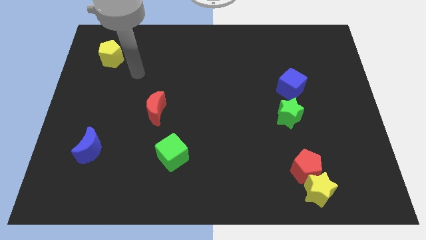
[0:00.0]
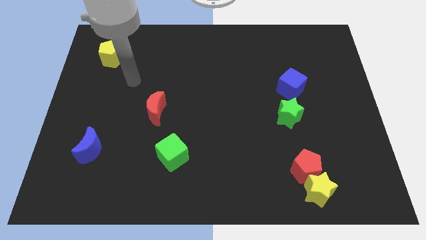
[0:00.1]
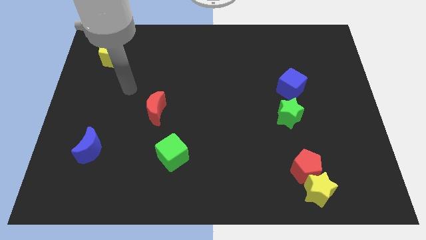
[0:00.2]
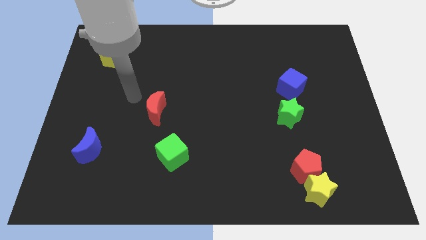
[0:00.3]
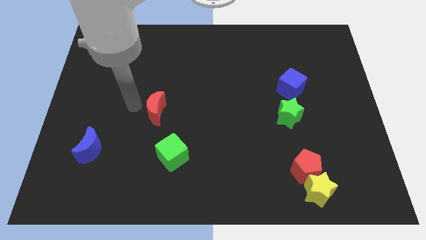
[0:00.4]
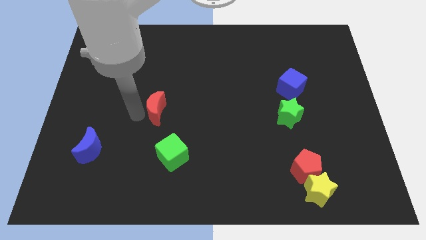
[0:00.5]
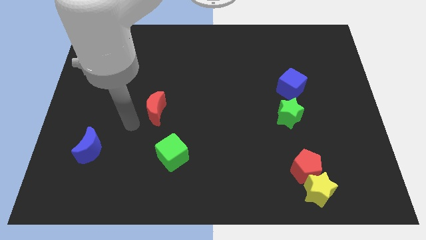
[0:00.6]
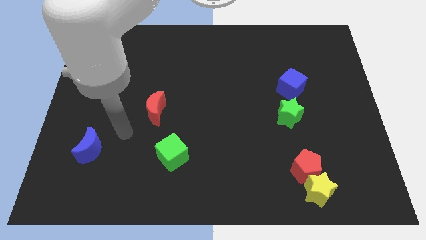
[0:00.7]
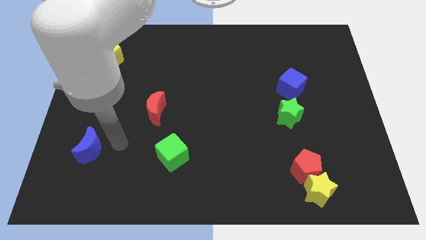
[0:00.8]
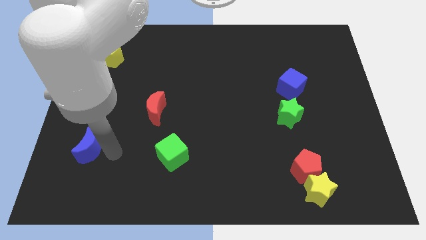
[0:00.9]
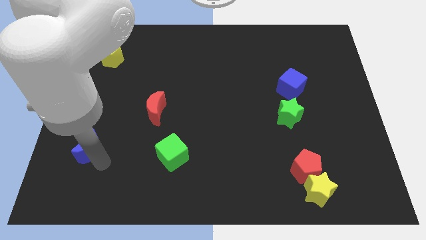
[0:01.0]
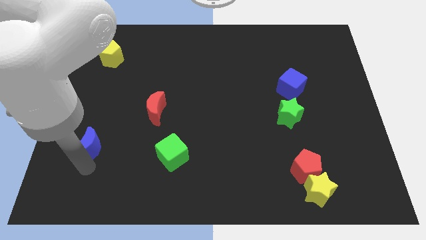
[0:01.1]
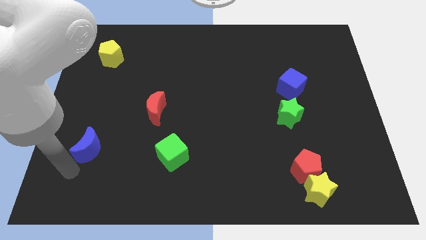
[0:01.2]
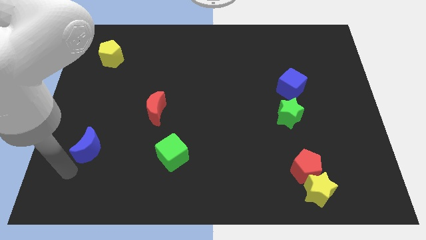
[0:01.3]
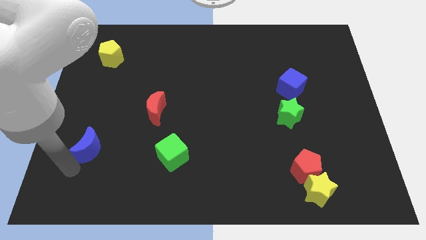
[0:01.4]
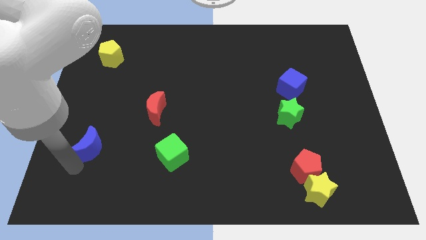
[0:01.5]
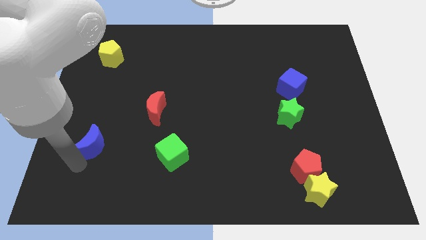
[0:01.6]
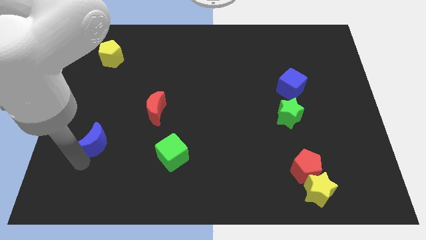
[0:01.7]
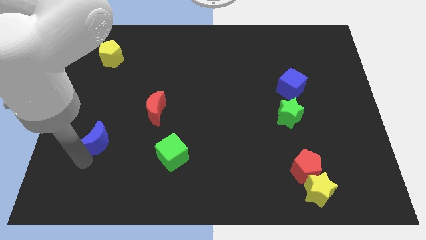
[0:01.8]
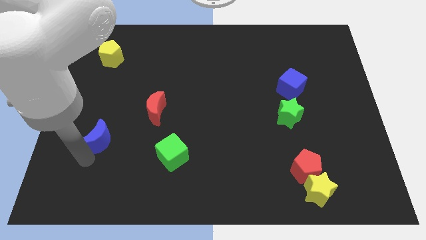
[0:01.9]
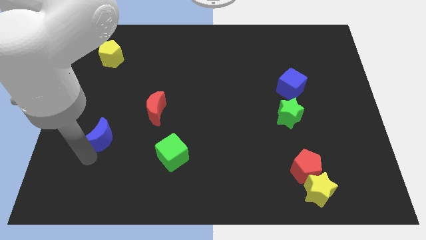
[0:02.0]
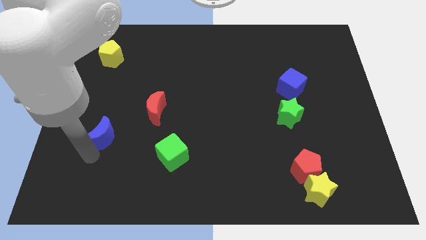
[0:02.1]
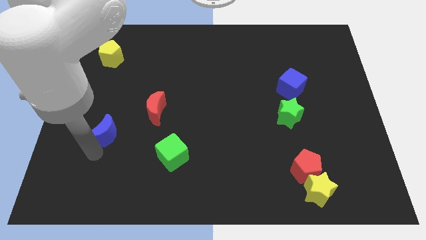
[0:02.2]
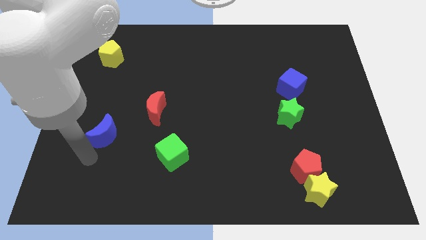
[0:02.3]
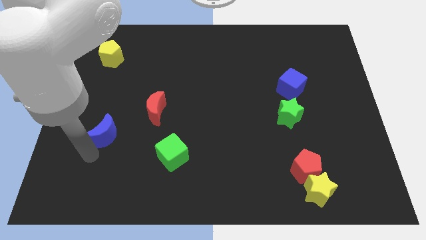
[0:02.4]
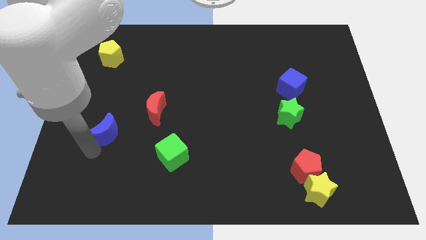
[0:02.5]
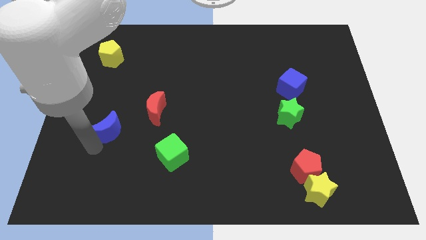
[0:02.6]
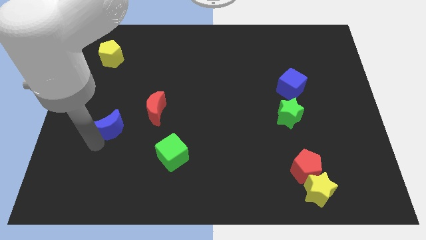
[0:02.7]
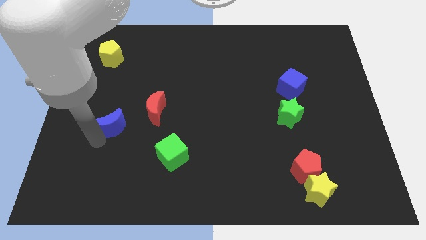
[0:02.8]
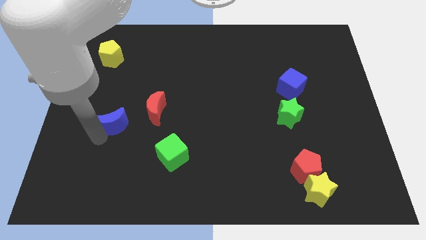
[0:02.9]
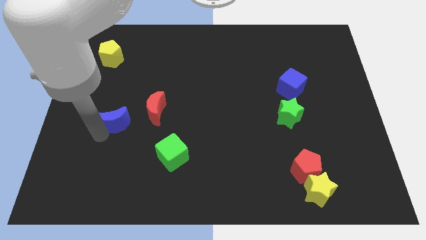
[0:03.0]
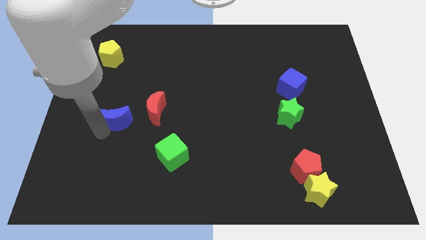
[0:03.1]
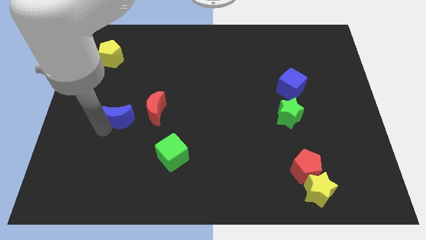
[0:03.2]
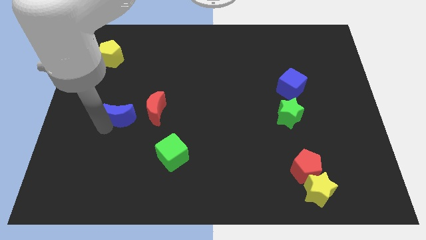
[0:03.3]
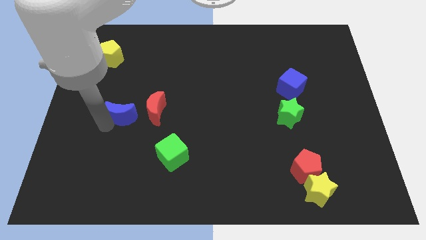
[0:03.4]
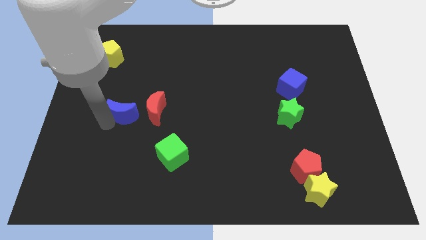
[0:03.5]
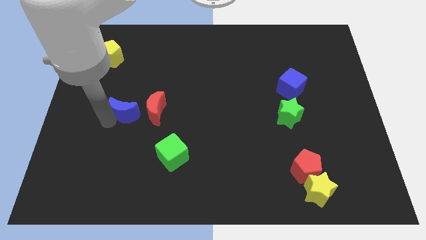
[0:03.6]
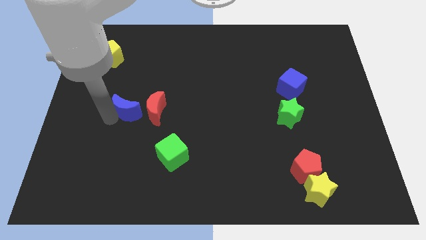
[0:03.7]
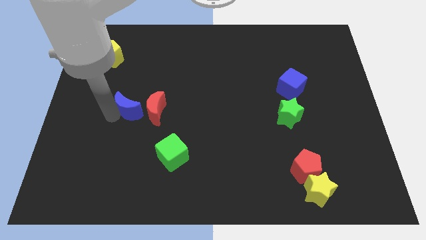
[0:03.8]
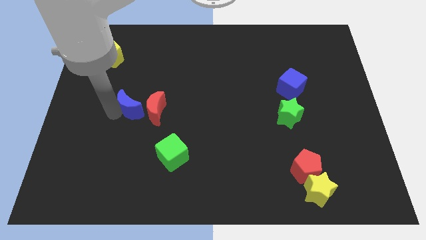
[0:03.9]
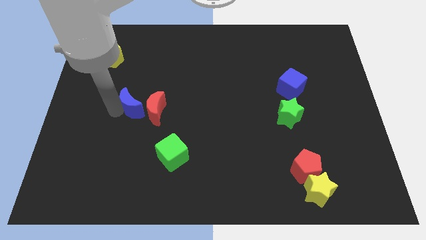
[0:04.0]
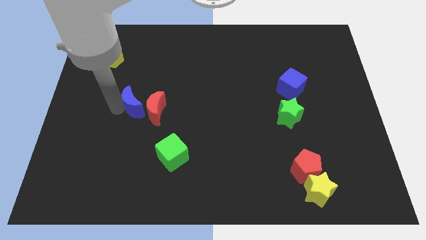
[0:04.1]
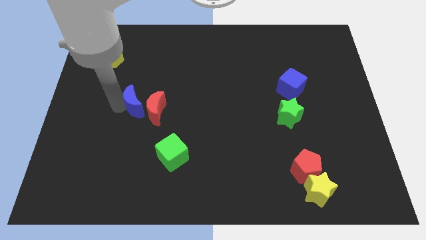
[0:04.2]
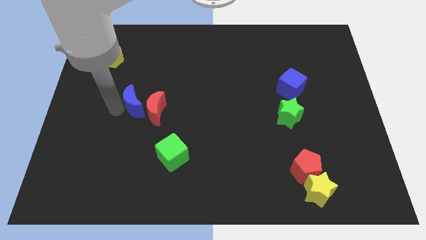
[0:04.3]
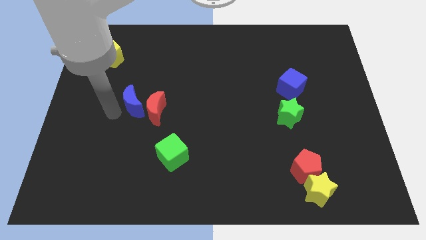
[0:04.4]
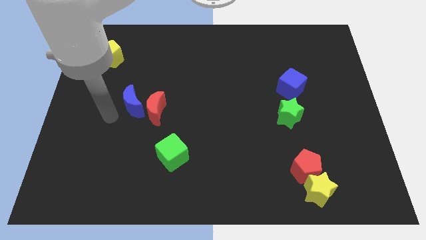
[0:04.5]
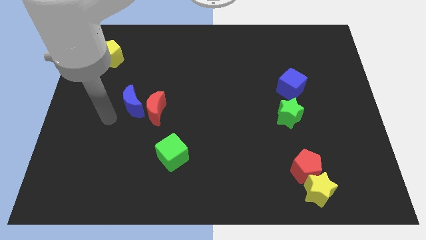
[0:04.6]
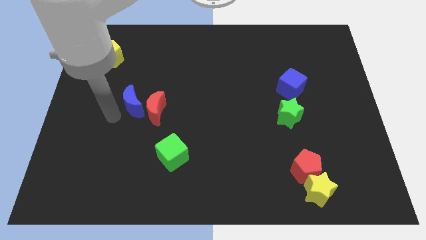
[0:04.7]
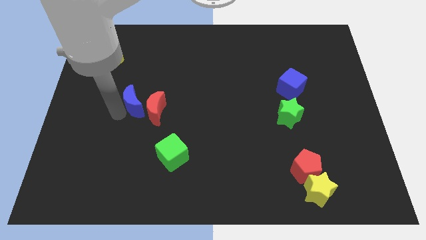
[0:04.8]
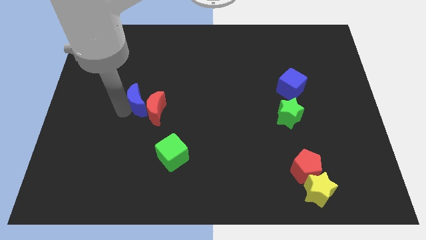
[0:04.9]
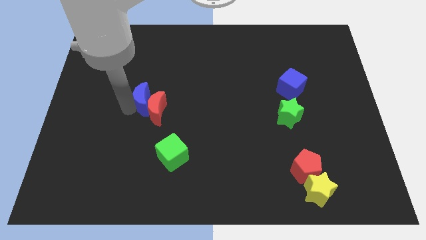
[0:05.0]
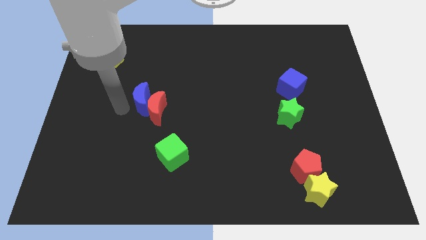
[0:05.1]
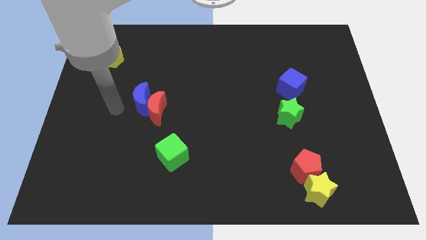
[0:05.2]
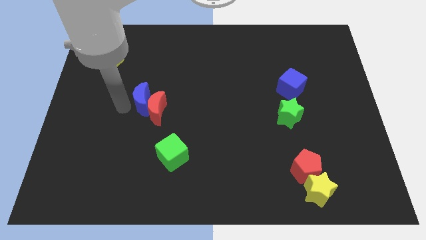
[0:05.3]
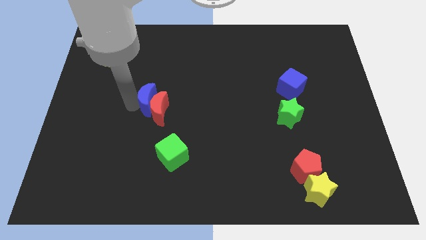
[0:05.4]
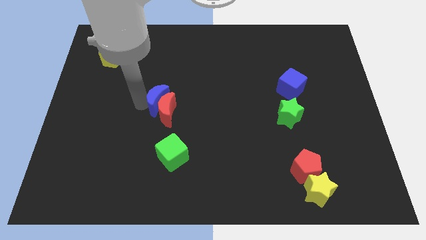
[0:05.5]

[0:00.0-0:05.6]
slide the blue moon to the top right side of the red moon

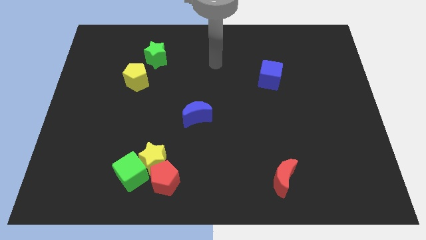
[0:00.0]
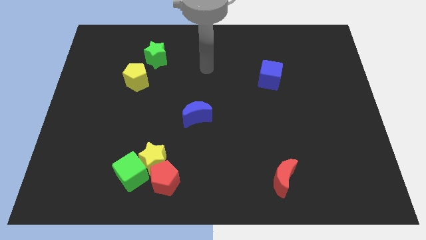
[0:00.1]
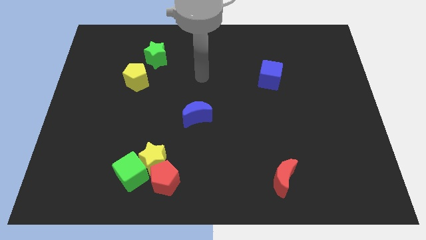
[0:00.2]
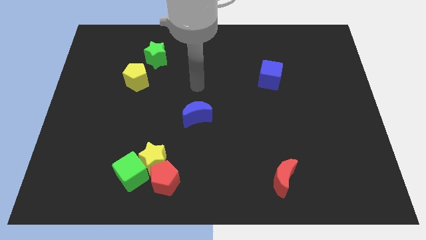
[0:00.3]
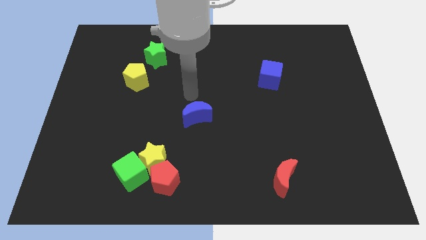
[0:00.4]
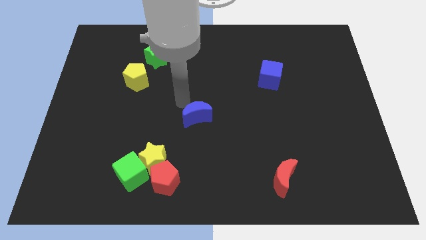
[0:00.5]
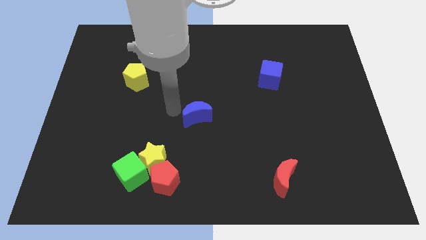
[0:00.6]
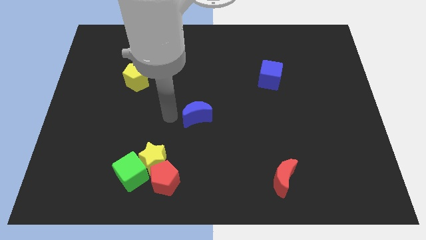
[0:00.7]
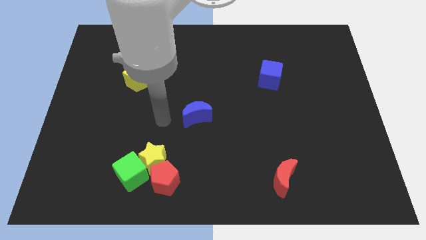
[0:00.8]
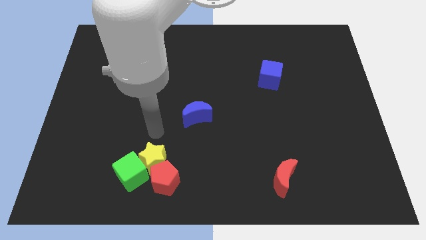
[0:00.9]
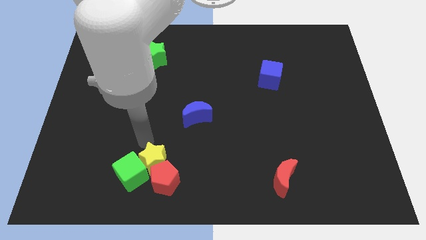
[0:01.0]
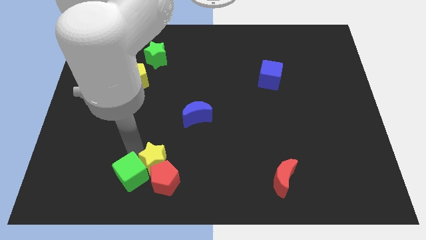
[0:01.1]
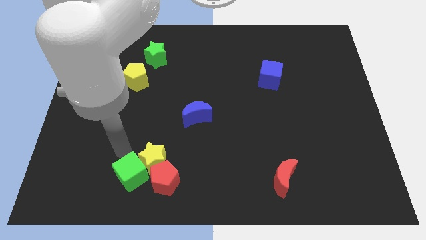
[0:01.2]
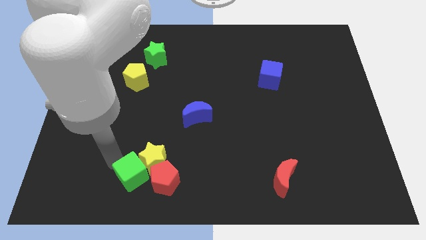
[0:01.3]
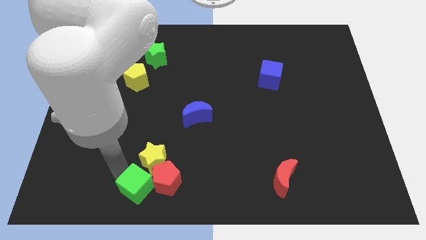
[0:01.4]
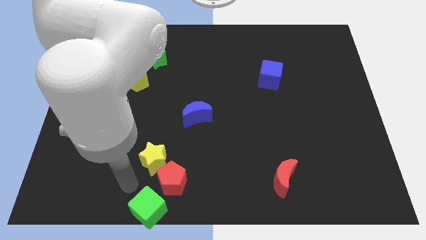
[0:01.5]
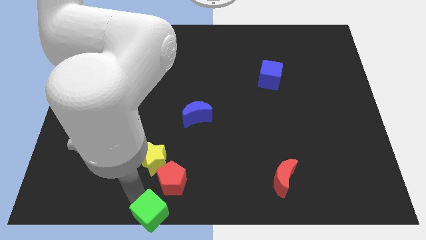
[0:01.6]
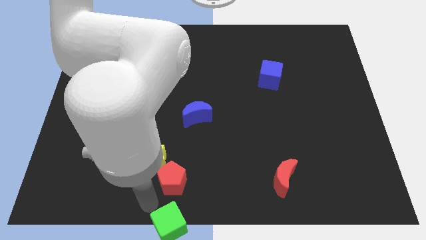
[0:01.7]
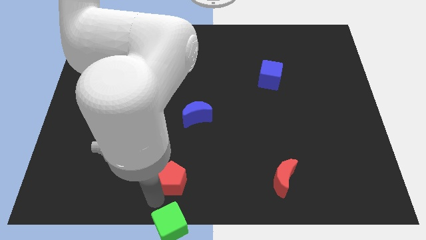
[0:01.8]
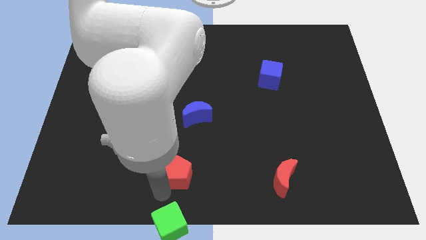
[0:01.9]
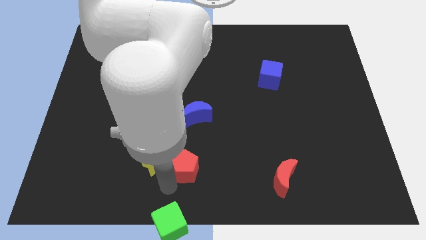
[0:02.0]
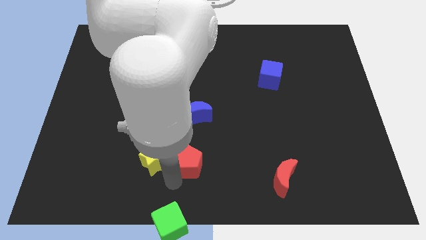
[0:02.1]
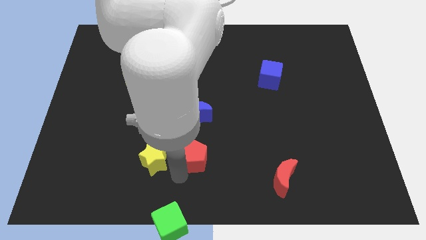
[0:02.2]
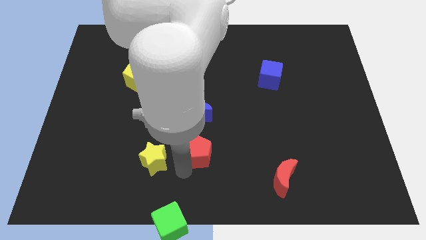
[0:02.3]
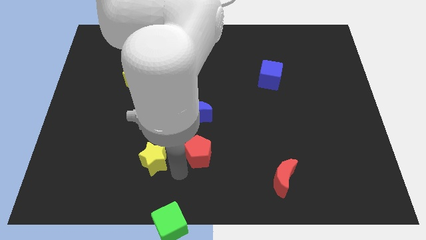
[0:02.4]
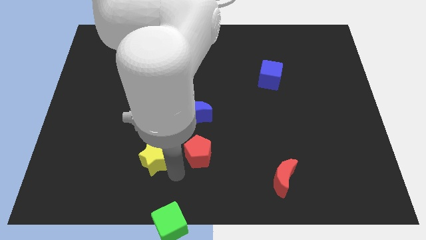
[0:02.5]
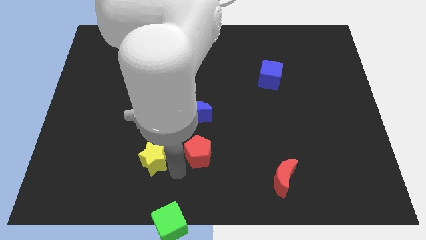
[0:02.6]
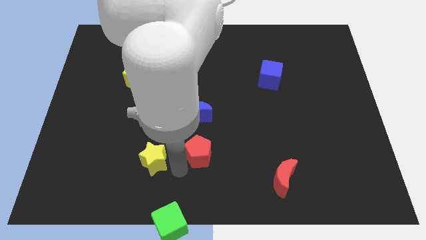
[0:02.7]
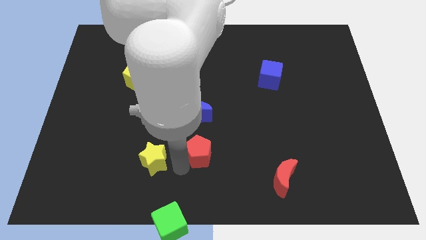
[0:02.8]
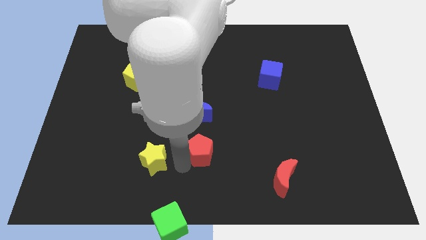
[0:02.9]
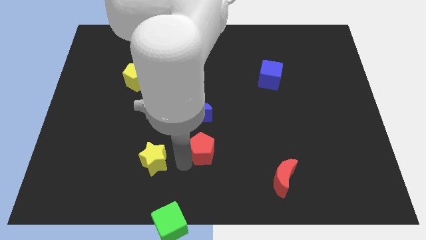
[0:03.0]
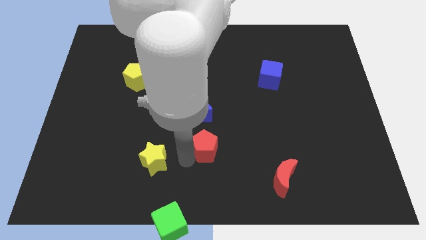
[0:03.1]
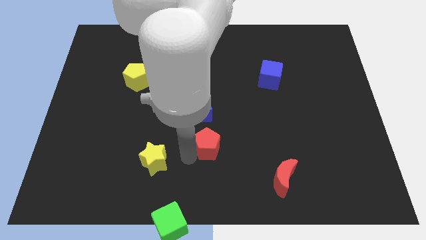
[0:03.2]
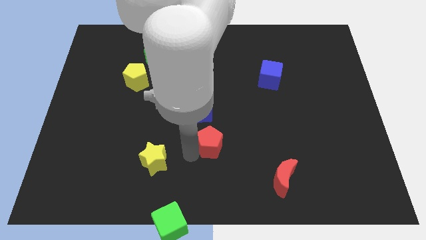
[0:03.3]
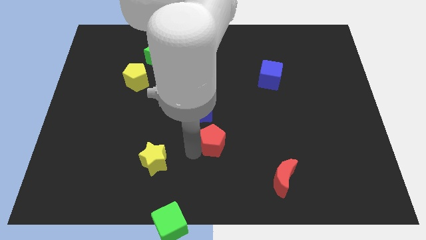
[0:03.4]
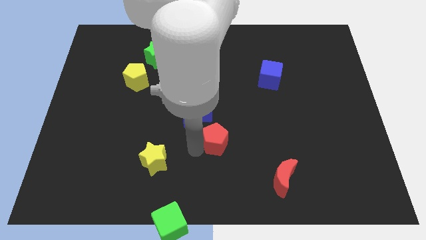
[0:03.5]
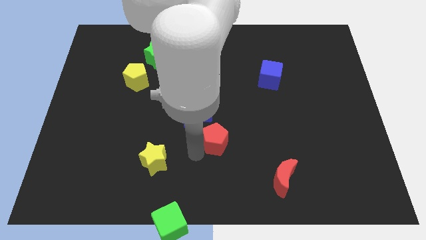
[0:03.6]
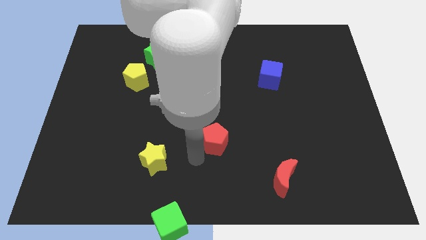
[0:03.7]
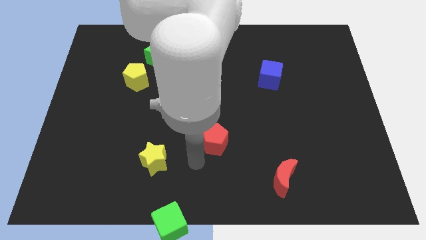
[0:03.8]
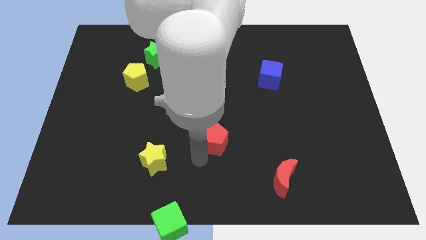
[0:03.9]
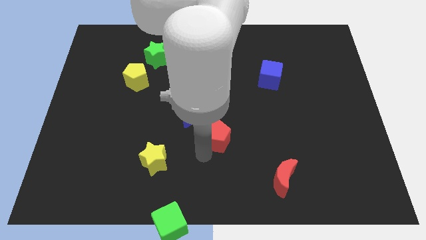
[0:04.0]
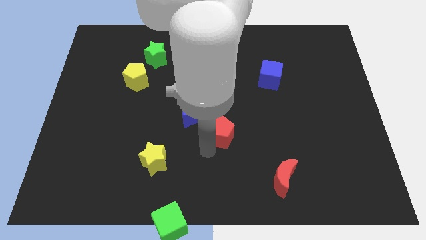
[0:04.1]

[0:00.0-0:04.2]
push the red pentagon to the right side of the blue moon
